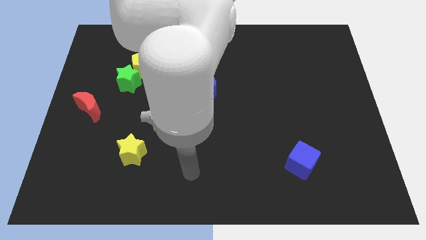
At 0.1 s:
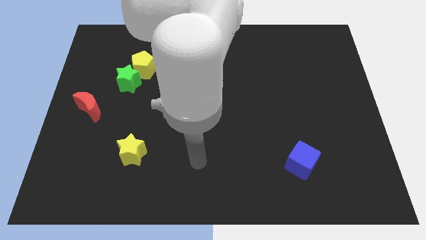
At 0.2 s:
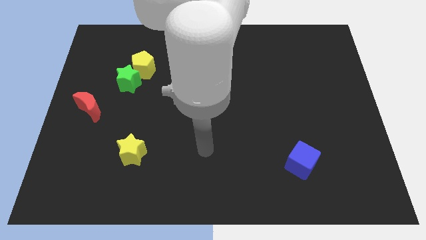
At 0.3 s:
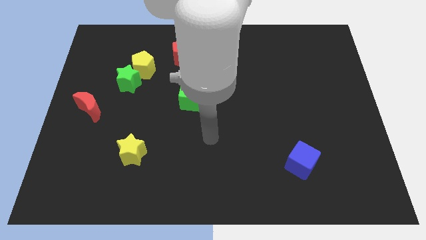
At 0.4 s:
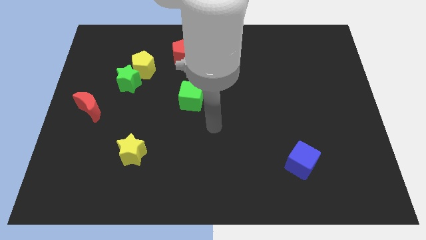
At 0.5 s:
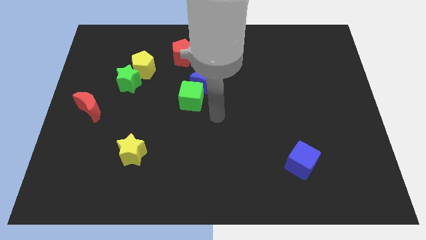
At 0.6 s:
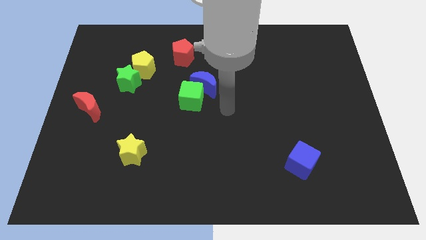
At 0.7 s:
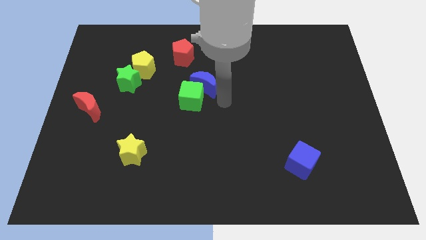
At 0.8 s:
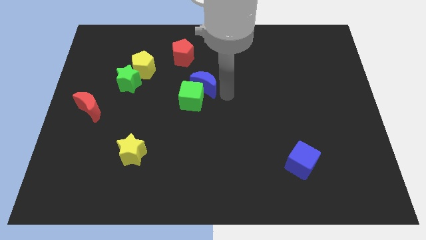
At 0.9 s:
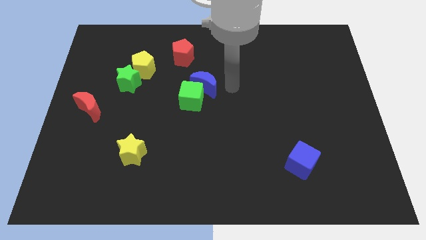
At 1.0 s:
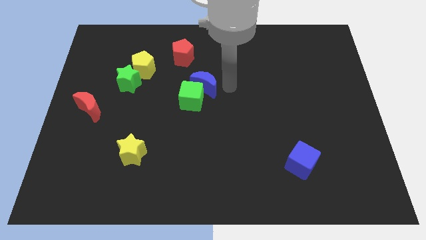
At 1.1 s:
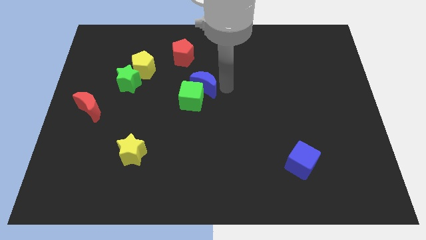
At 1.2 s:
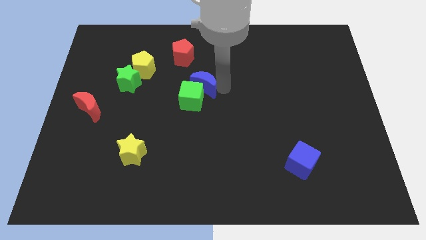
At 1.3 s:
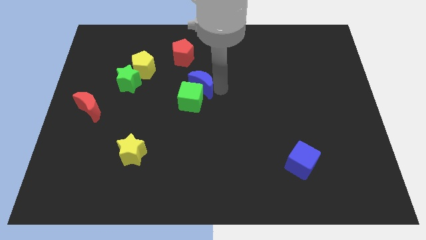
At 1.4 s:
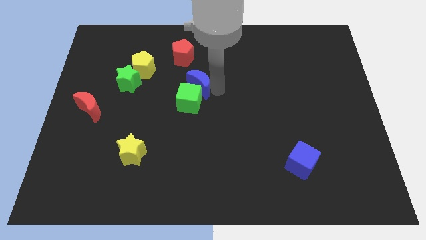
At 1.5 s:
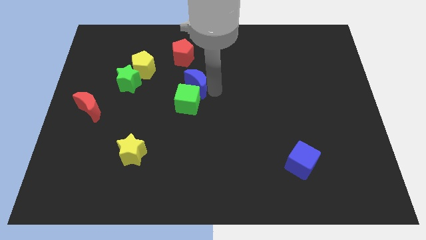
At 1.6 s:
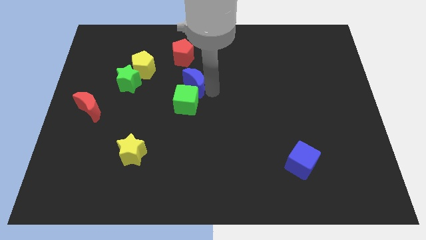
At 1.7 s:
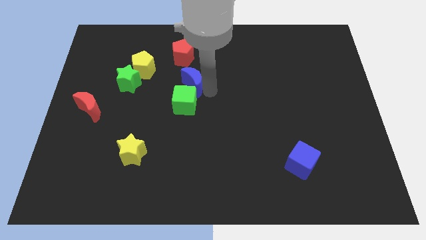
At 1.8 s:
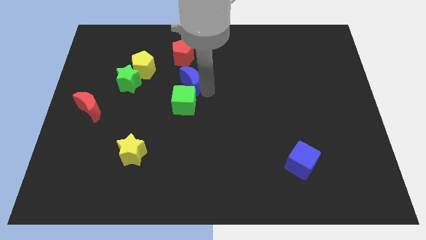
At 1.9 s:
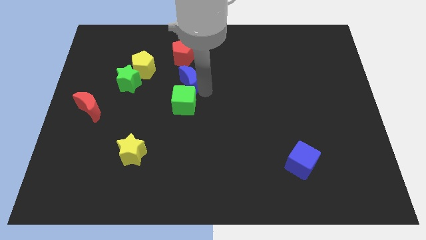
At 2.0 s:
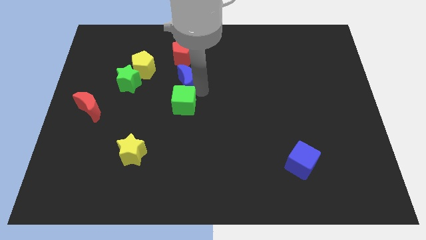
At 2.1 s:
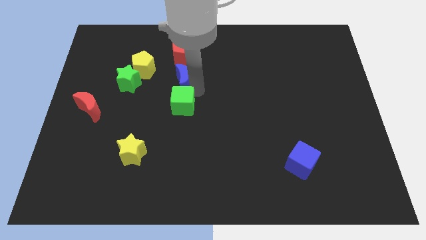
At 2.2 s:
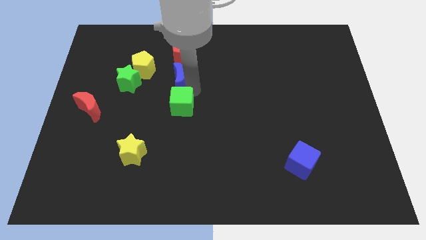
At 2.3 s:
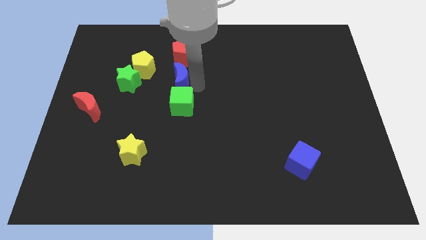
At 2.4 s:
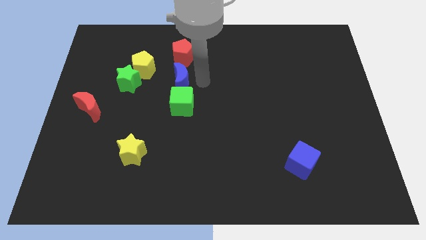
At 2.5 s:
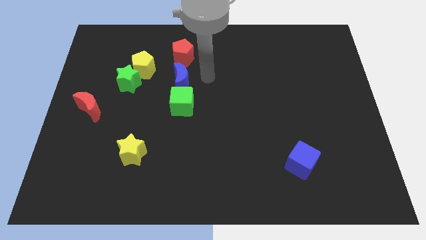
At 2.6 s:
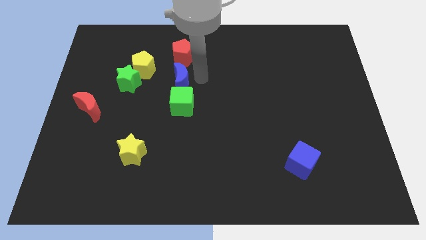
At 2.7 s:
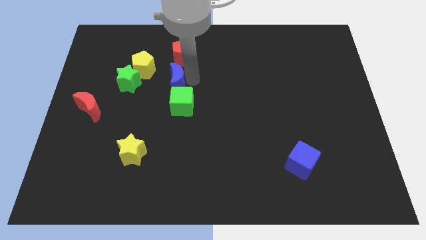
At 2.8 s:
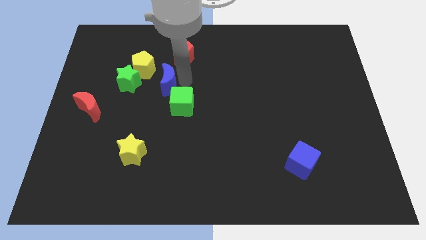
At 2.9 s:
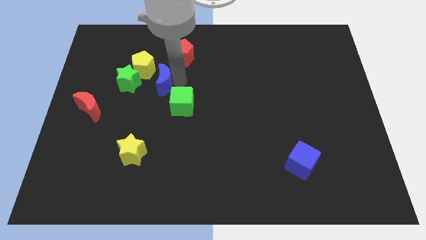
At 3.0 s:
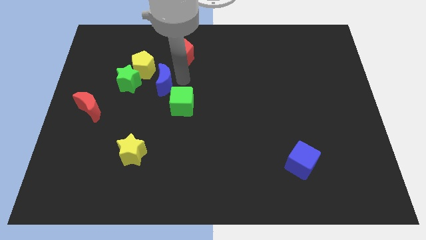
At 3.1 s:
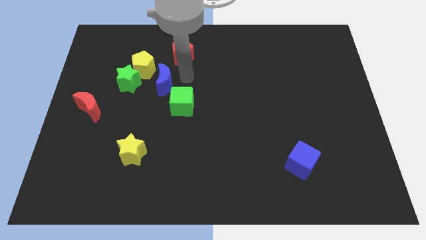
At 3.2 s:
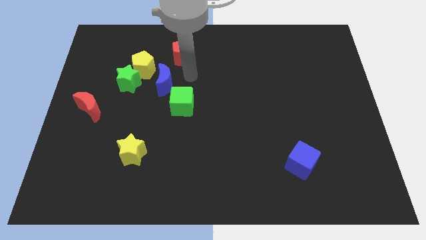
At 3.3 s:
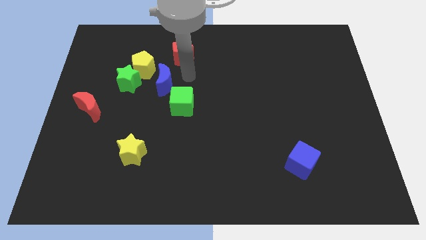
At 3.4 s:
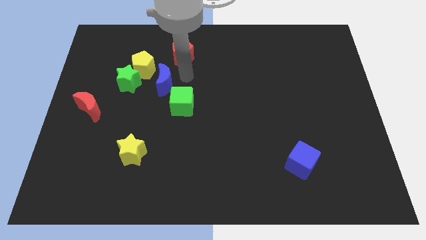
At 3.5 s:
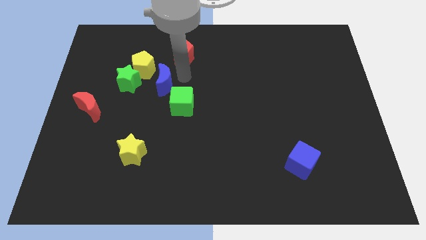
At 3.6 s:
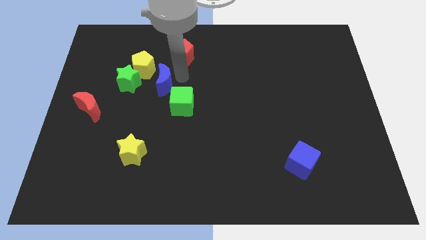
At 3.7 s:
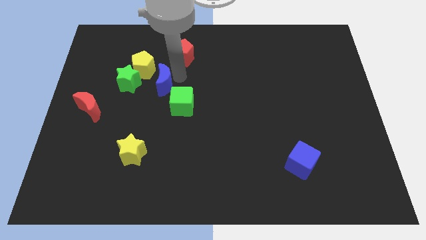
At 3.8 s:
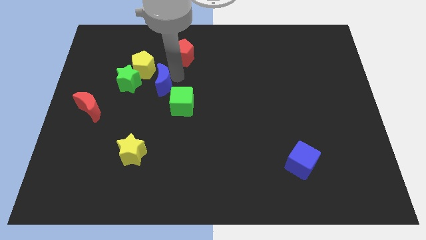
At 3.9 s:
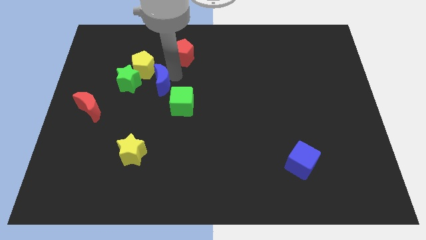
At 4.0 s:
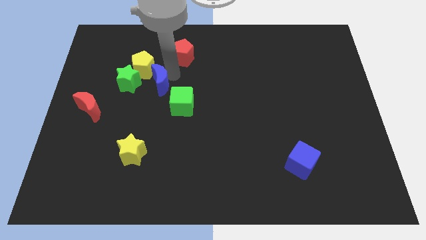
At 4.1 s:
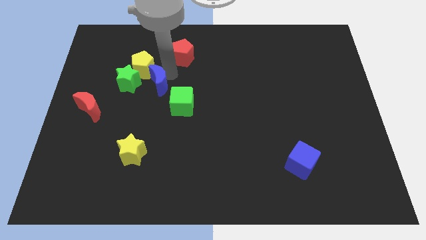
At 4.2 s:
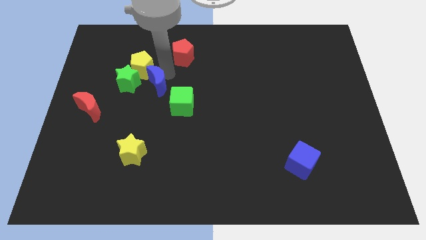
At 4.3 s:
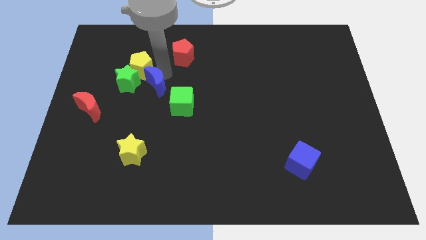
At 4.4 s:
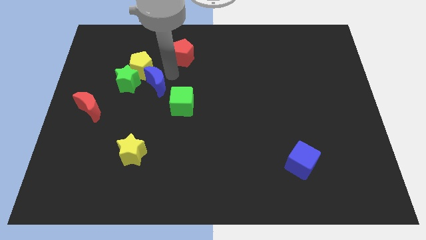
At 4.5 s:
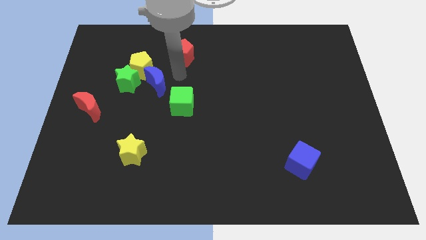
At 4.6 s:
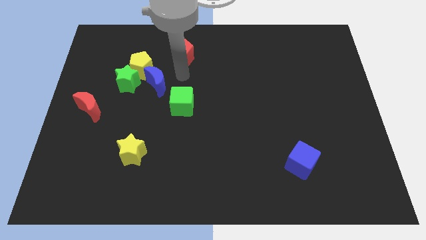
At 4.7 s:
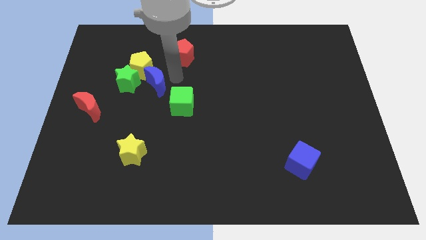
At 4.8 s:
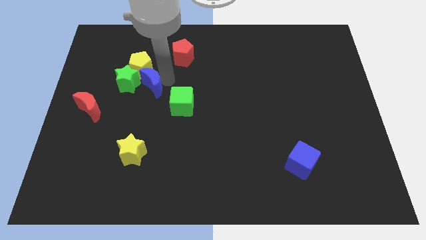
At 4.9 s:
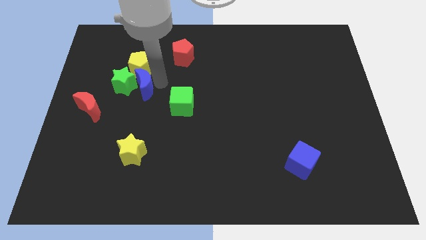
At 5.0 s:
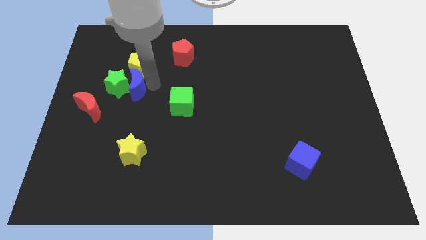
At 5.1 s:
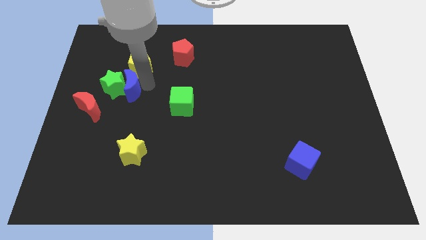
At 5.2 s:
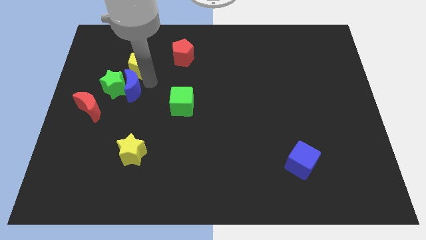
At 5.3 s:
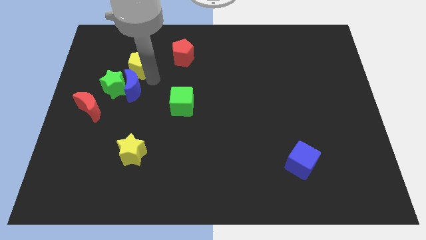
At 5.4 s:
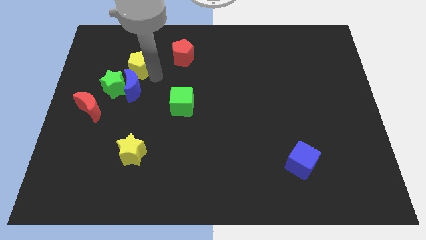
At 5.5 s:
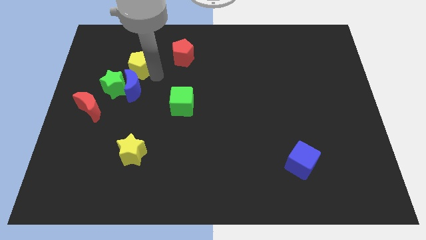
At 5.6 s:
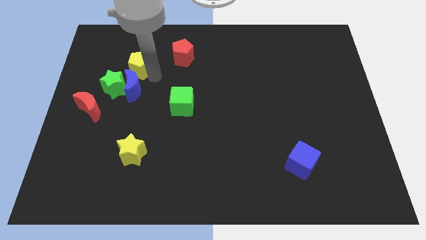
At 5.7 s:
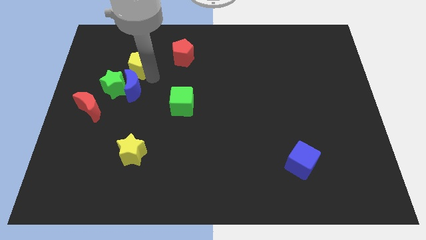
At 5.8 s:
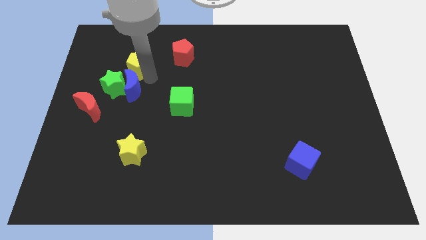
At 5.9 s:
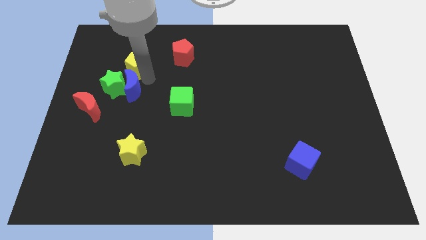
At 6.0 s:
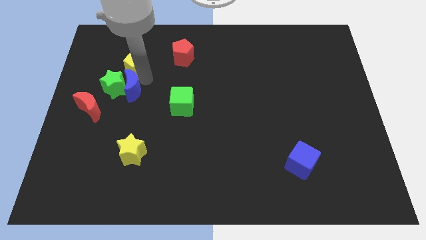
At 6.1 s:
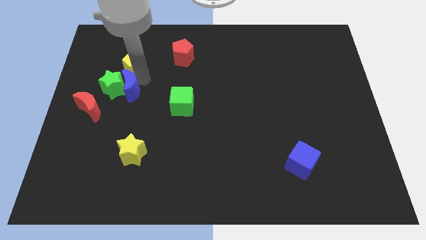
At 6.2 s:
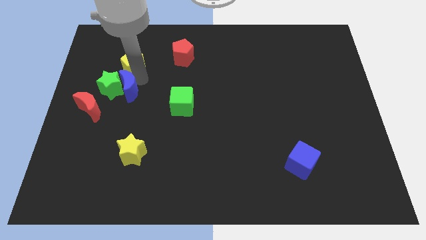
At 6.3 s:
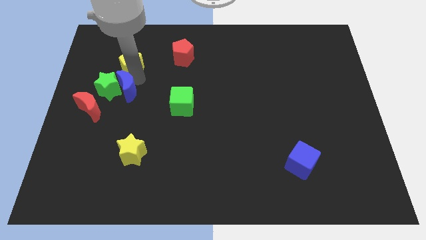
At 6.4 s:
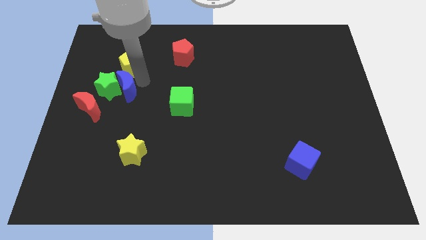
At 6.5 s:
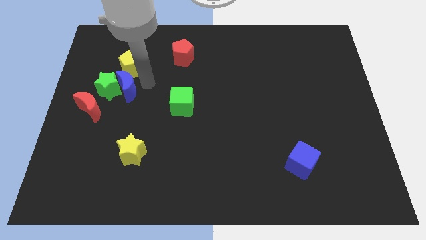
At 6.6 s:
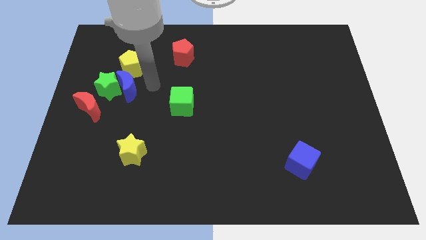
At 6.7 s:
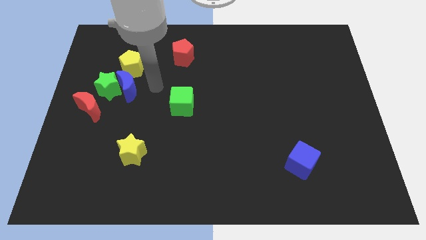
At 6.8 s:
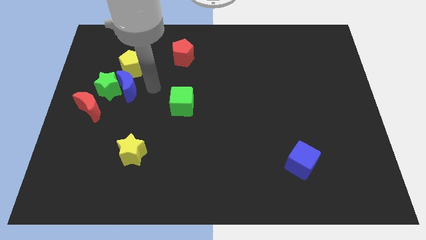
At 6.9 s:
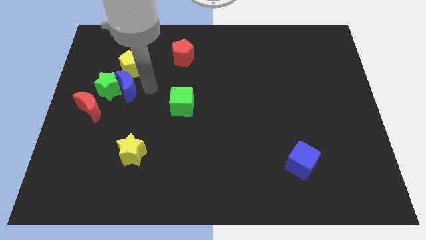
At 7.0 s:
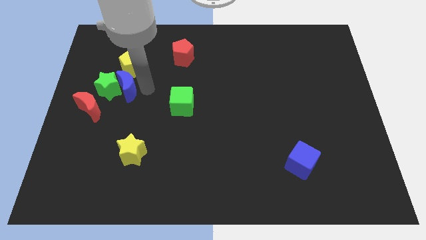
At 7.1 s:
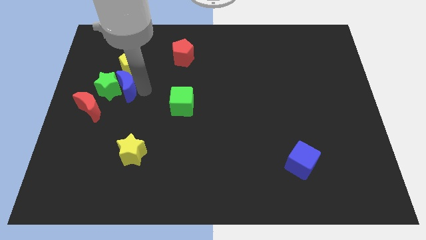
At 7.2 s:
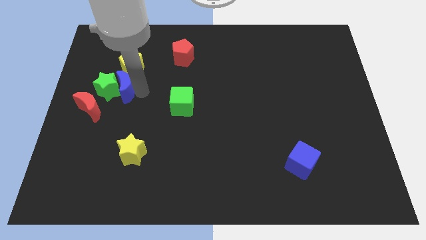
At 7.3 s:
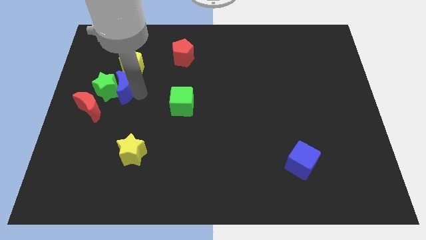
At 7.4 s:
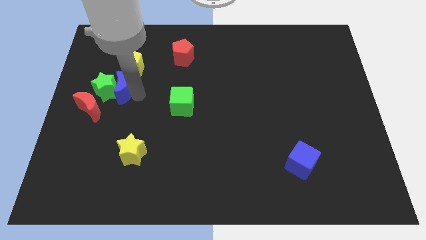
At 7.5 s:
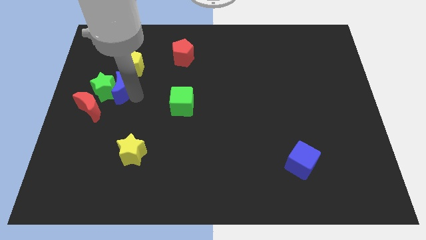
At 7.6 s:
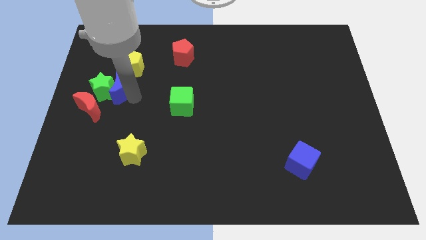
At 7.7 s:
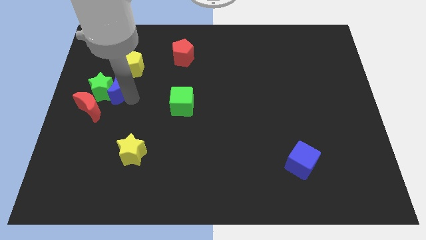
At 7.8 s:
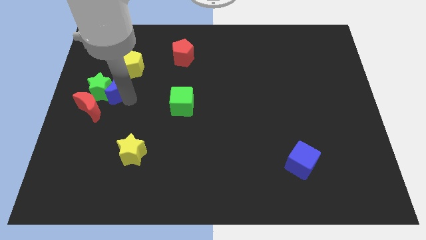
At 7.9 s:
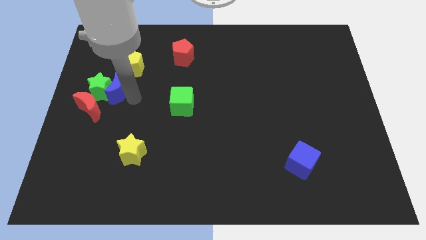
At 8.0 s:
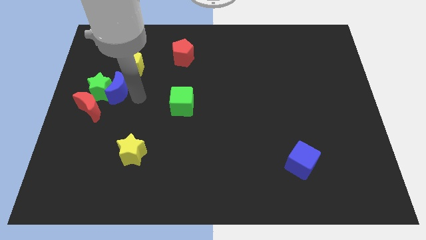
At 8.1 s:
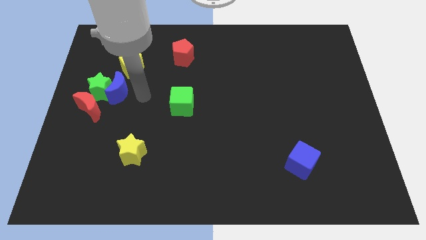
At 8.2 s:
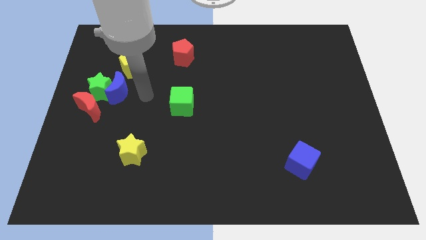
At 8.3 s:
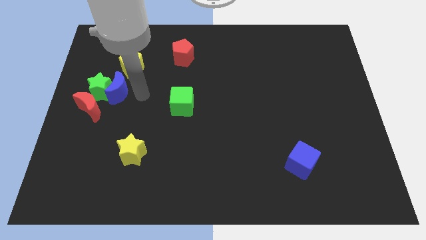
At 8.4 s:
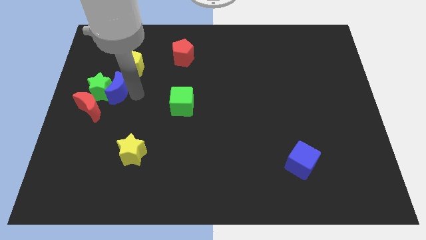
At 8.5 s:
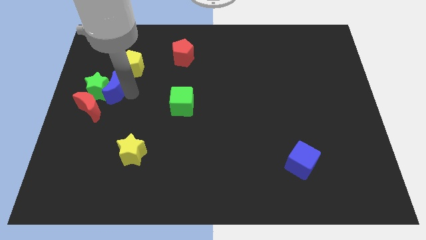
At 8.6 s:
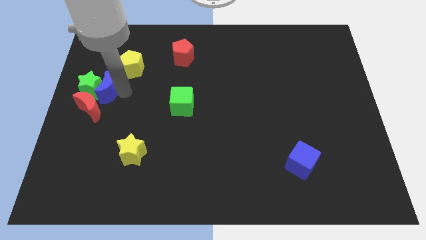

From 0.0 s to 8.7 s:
move the blue moon to the left side of the board
